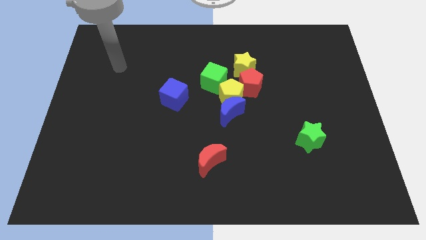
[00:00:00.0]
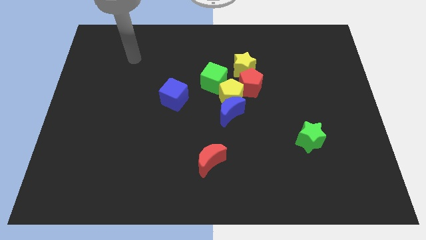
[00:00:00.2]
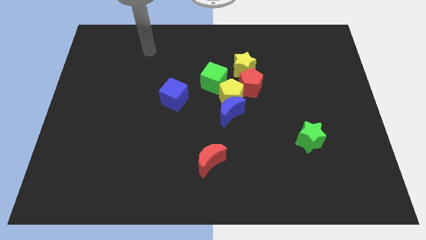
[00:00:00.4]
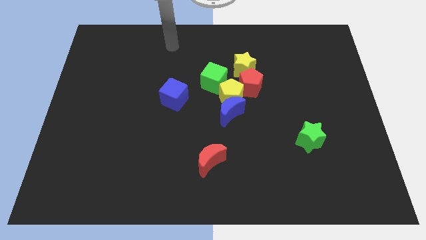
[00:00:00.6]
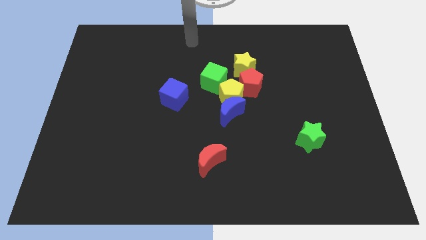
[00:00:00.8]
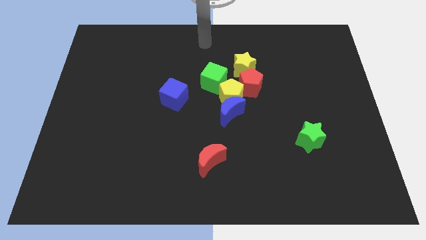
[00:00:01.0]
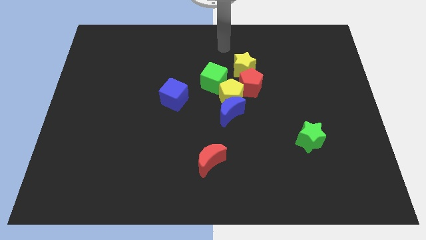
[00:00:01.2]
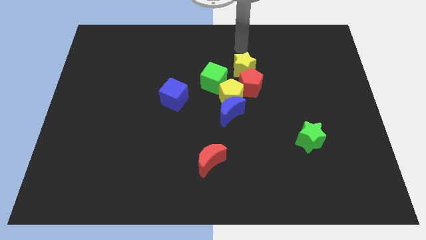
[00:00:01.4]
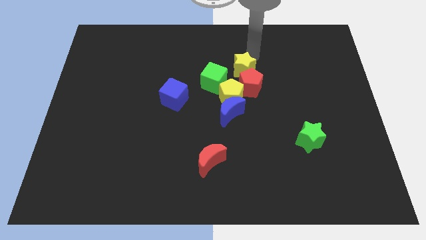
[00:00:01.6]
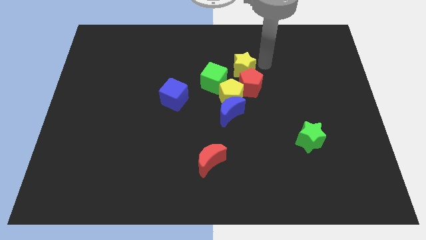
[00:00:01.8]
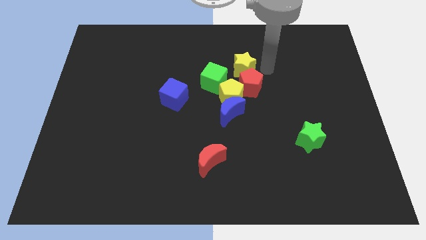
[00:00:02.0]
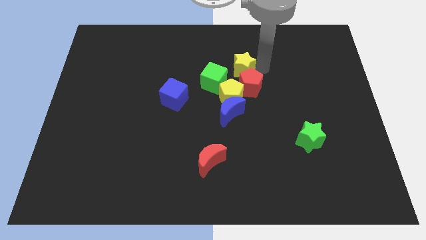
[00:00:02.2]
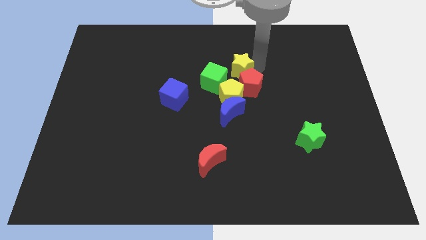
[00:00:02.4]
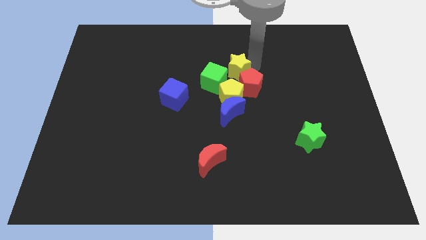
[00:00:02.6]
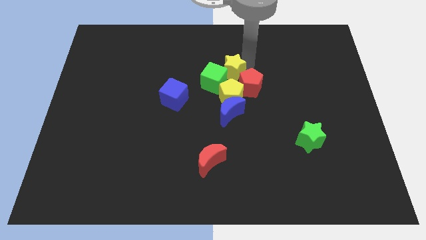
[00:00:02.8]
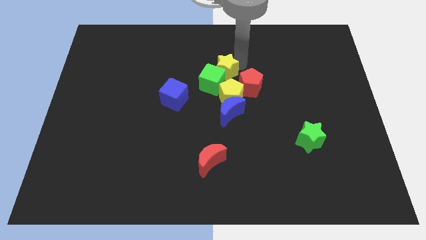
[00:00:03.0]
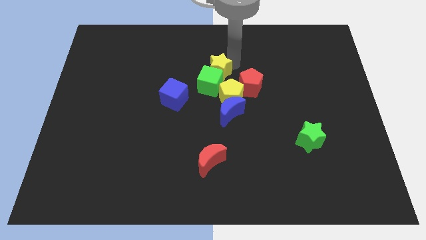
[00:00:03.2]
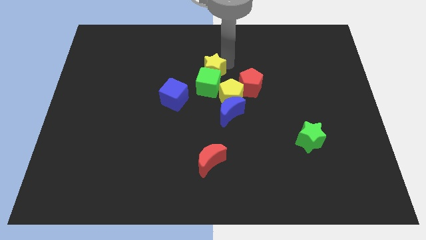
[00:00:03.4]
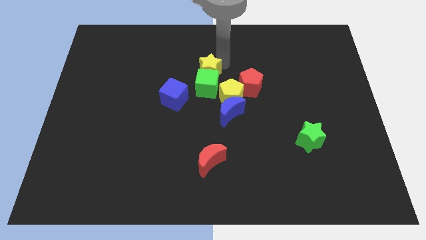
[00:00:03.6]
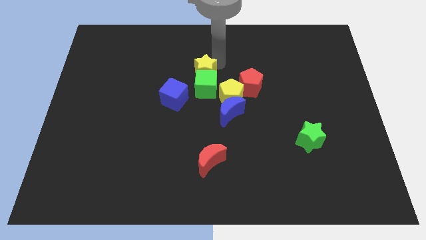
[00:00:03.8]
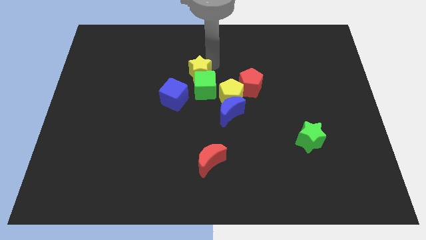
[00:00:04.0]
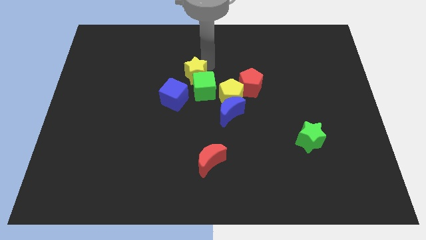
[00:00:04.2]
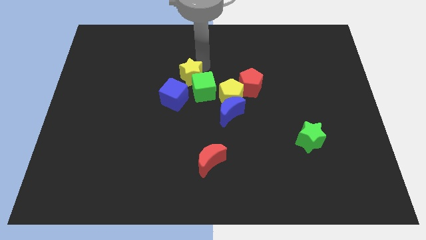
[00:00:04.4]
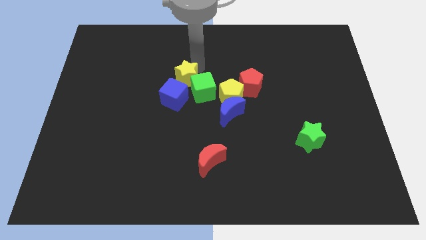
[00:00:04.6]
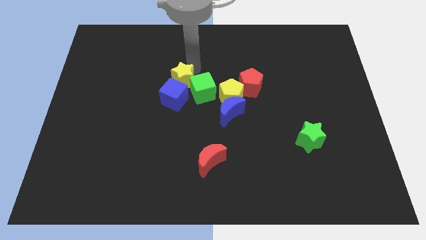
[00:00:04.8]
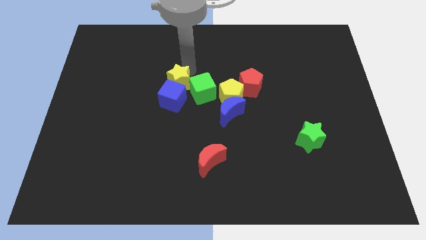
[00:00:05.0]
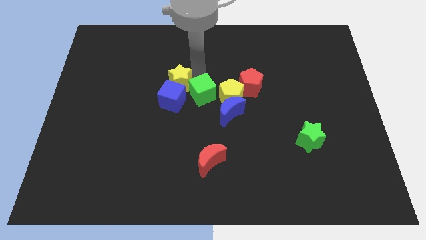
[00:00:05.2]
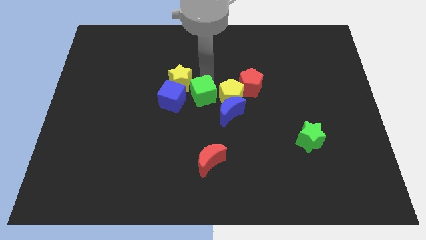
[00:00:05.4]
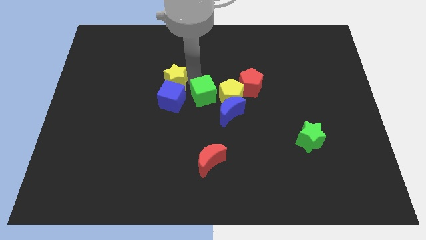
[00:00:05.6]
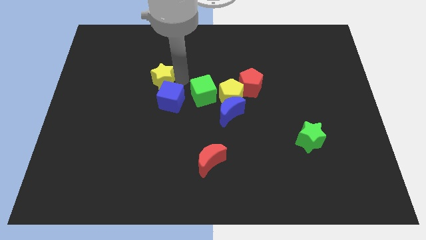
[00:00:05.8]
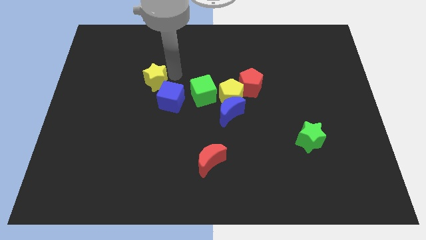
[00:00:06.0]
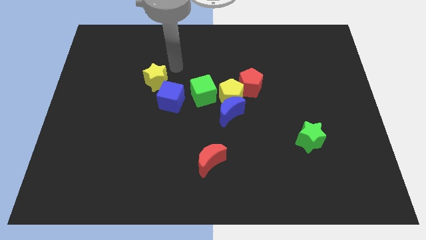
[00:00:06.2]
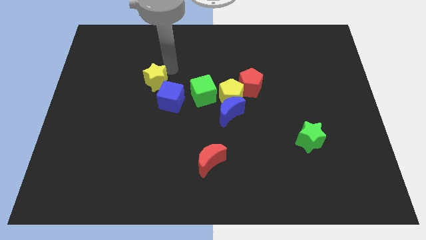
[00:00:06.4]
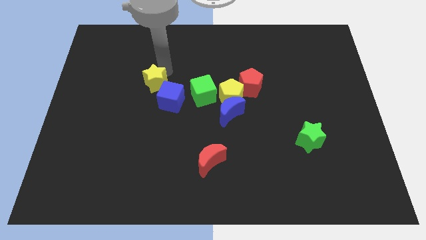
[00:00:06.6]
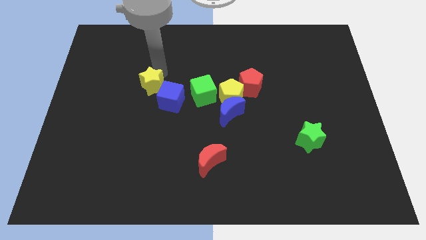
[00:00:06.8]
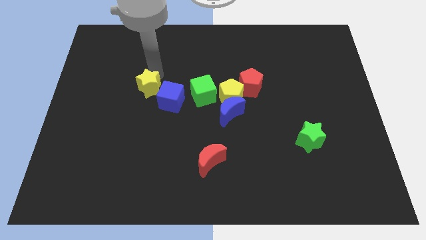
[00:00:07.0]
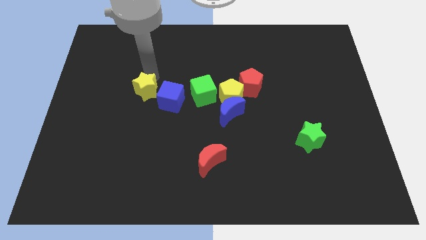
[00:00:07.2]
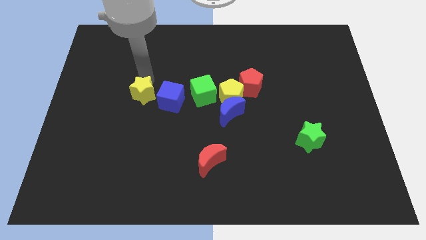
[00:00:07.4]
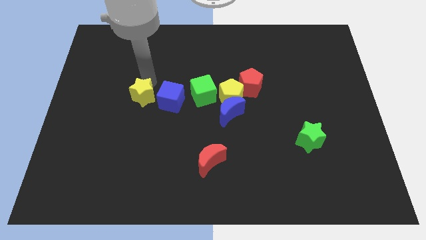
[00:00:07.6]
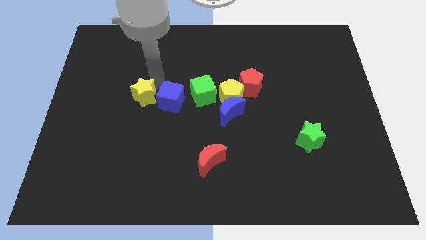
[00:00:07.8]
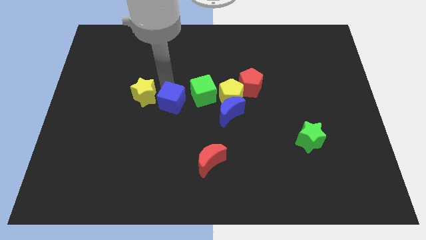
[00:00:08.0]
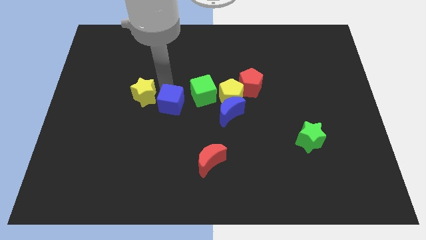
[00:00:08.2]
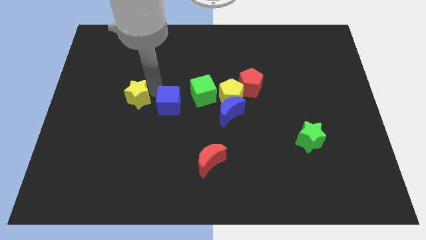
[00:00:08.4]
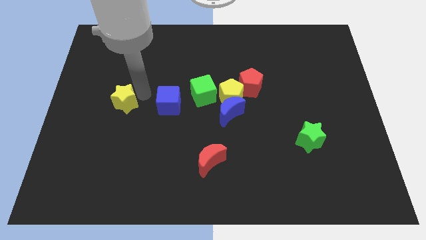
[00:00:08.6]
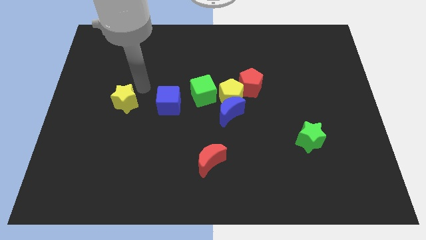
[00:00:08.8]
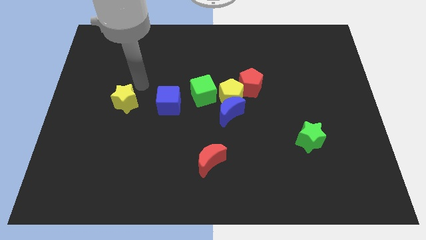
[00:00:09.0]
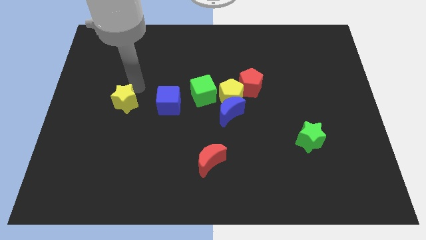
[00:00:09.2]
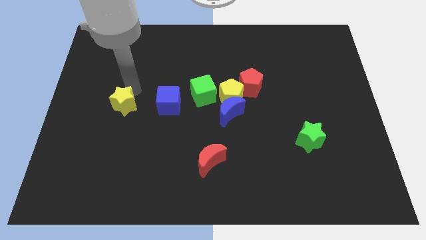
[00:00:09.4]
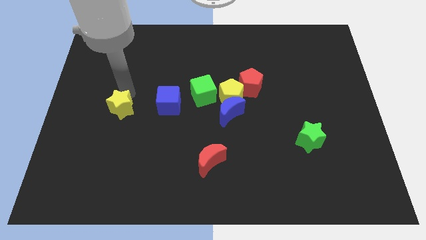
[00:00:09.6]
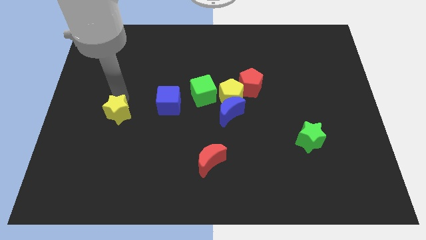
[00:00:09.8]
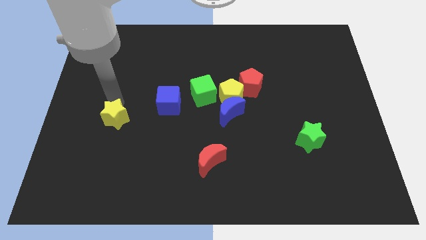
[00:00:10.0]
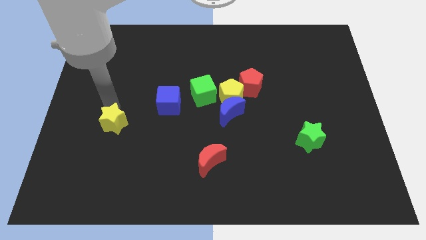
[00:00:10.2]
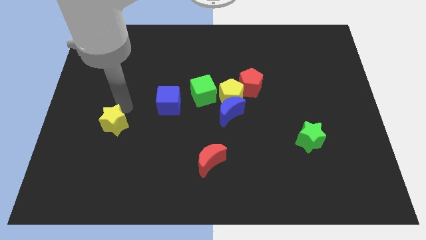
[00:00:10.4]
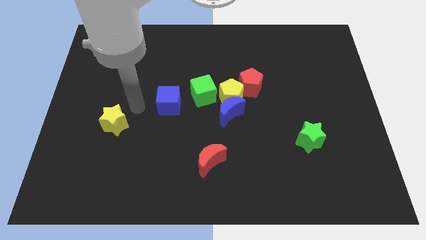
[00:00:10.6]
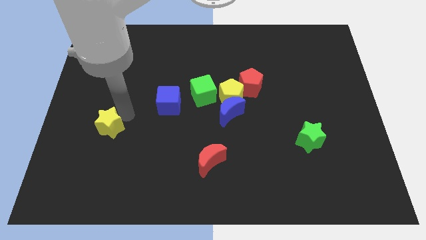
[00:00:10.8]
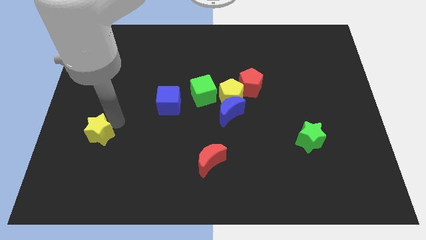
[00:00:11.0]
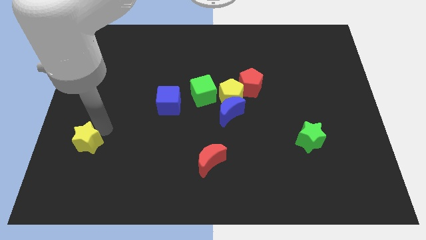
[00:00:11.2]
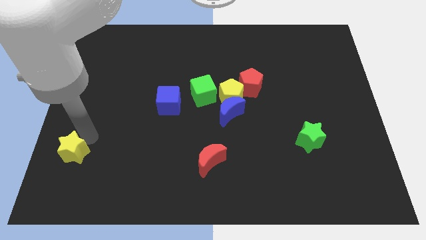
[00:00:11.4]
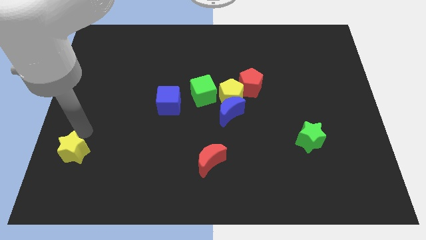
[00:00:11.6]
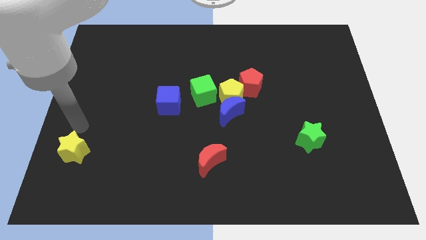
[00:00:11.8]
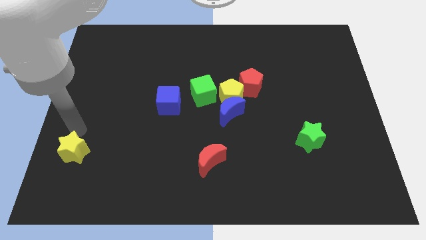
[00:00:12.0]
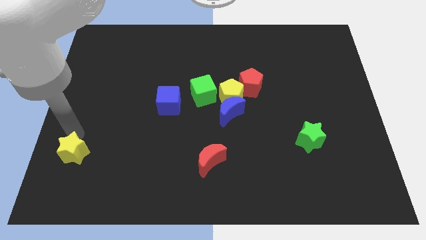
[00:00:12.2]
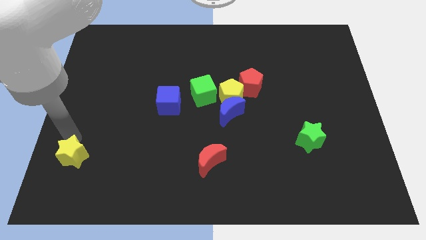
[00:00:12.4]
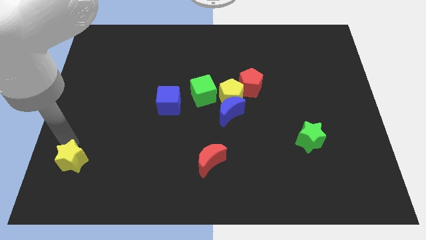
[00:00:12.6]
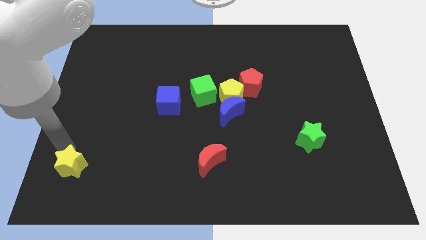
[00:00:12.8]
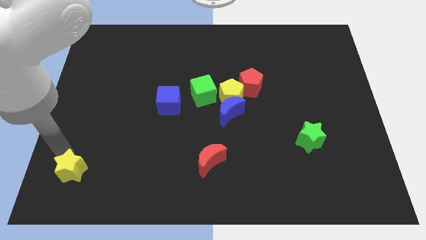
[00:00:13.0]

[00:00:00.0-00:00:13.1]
push the yellow star to the lower left corner

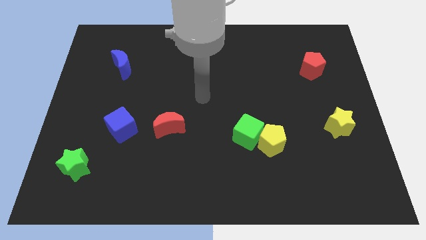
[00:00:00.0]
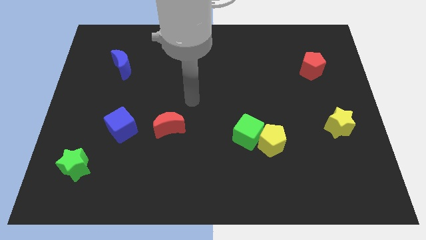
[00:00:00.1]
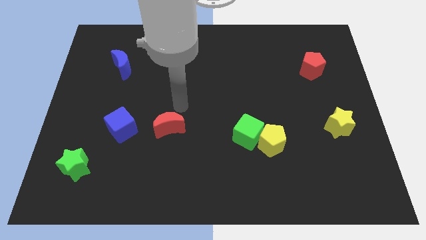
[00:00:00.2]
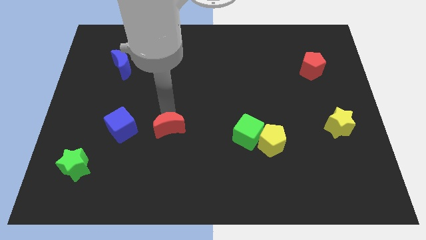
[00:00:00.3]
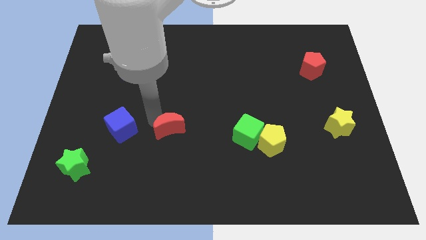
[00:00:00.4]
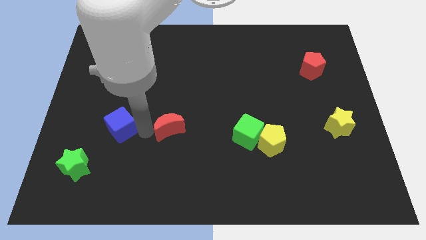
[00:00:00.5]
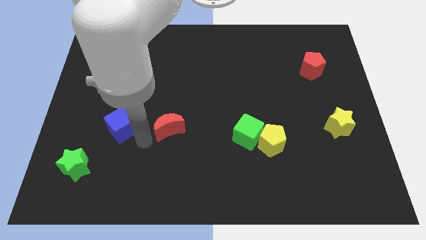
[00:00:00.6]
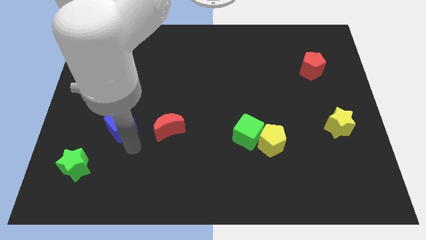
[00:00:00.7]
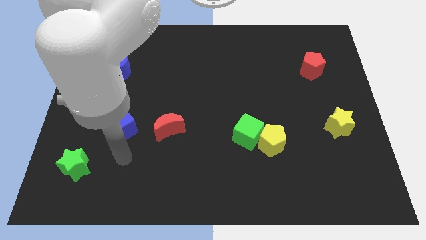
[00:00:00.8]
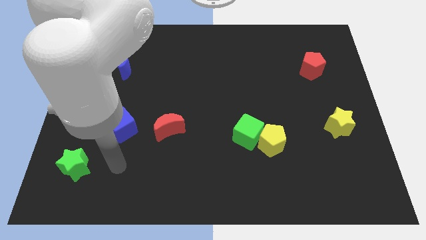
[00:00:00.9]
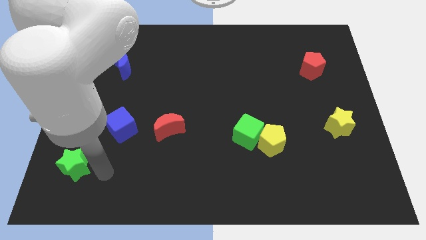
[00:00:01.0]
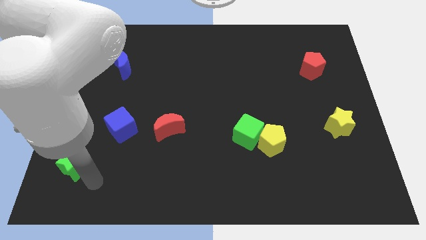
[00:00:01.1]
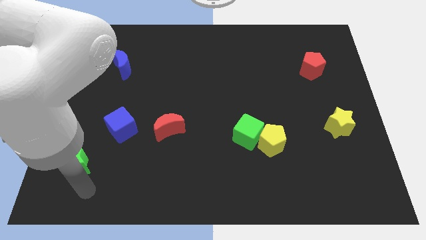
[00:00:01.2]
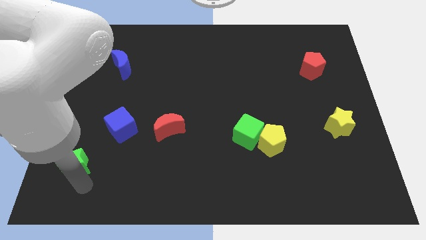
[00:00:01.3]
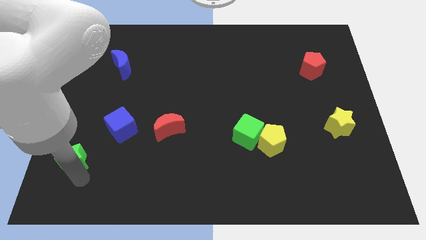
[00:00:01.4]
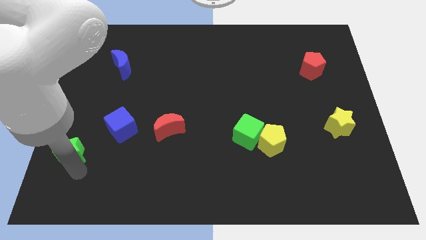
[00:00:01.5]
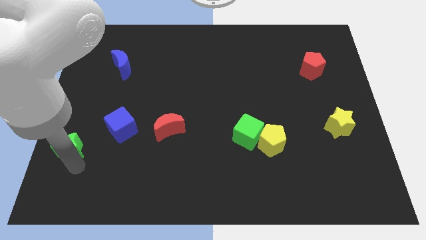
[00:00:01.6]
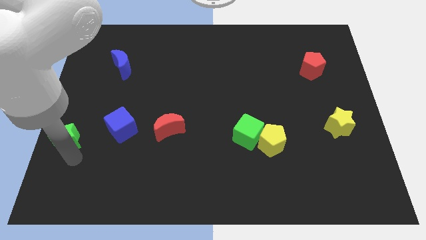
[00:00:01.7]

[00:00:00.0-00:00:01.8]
put the green star to the center left
